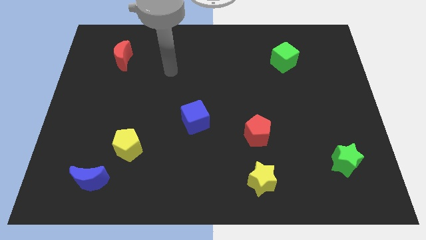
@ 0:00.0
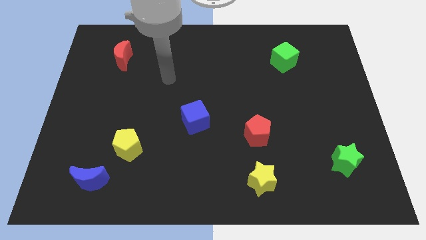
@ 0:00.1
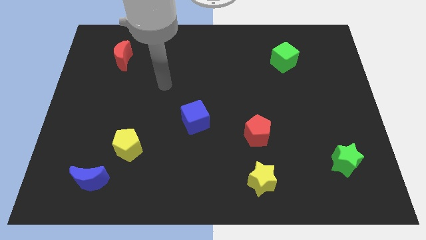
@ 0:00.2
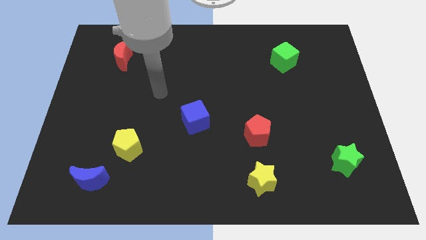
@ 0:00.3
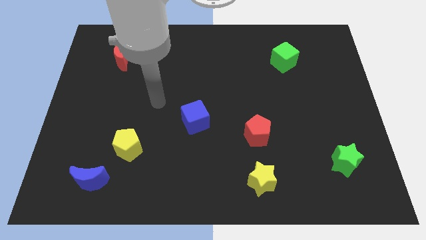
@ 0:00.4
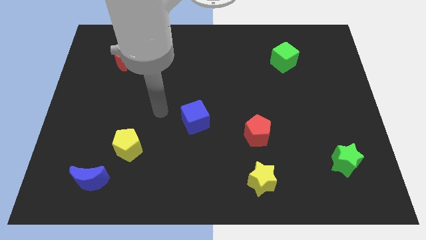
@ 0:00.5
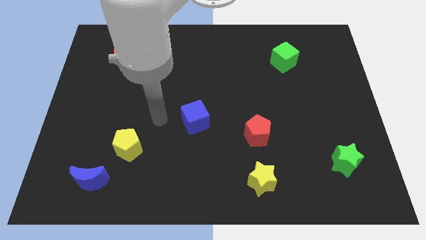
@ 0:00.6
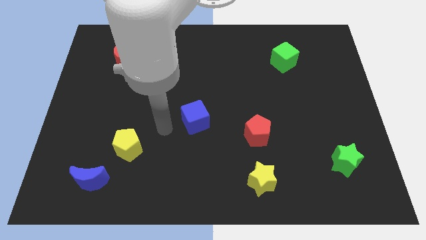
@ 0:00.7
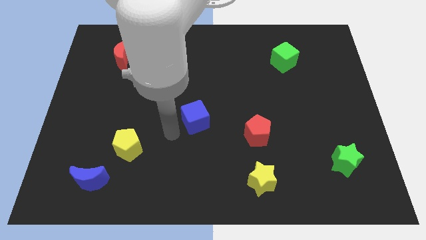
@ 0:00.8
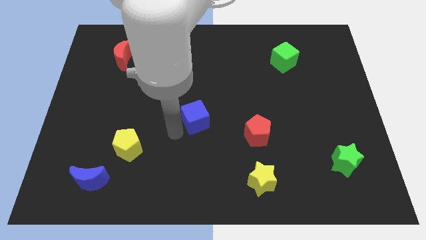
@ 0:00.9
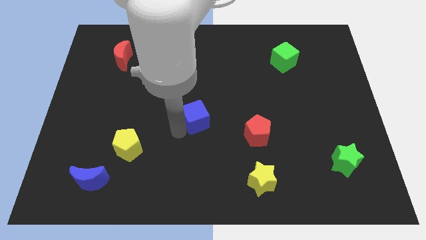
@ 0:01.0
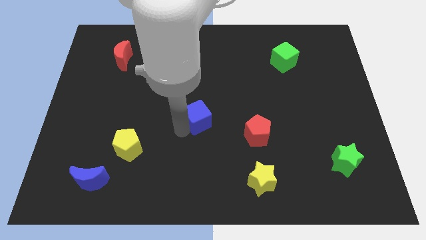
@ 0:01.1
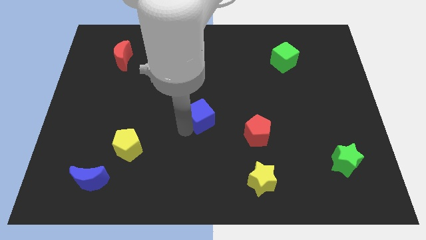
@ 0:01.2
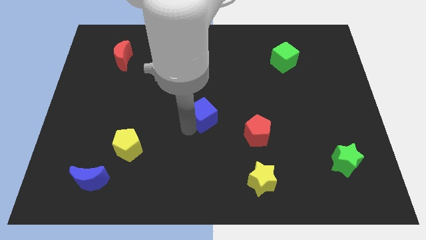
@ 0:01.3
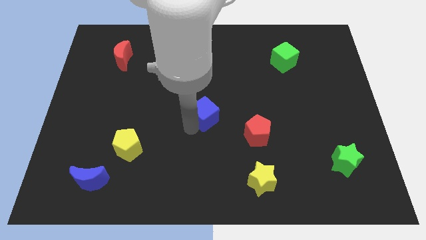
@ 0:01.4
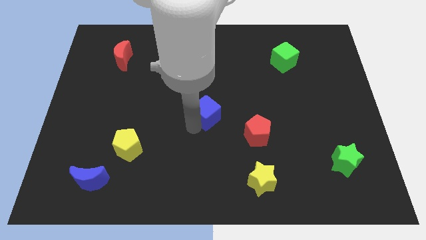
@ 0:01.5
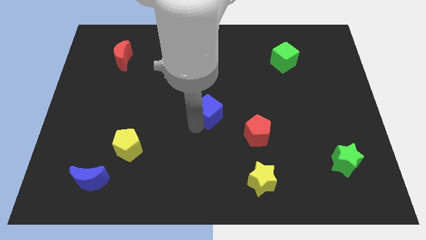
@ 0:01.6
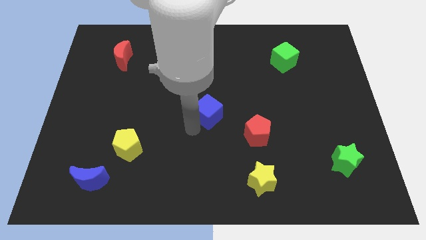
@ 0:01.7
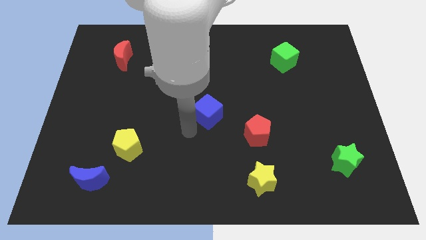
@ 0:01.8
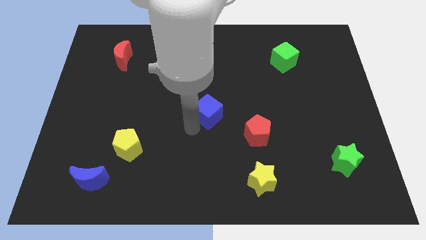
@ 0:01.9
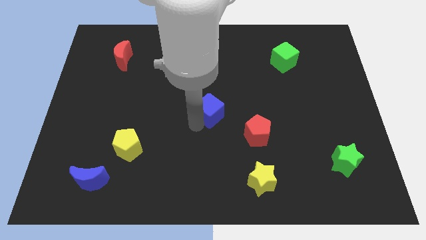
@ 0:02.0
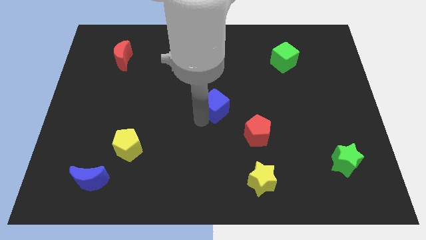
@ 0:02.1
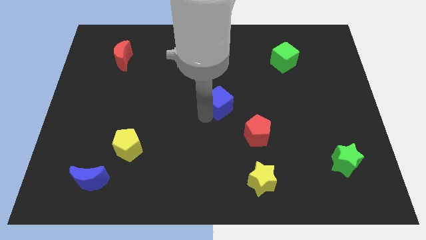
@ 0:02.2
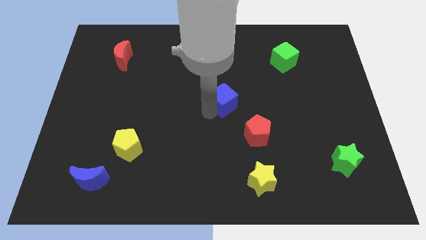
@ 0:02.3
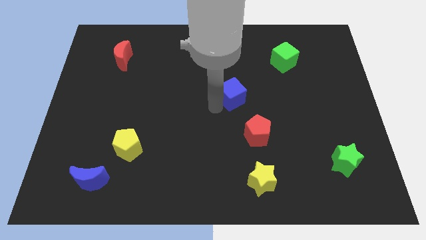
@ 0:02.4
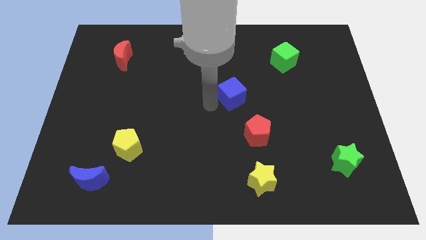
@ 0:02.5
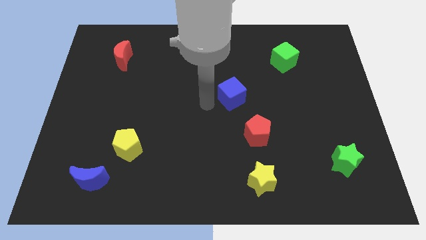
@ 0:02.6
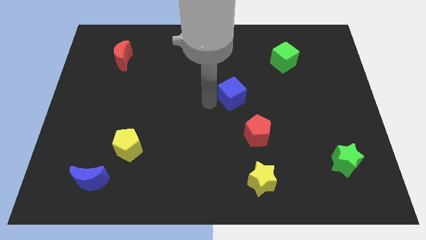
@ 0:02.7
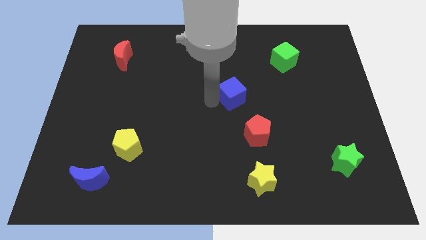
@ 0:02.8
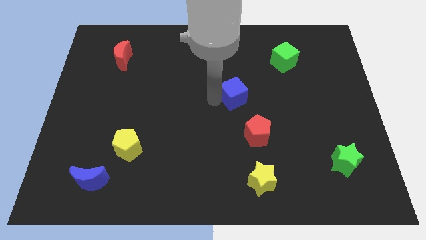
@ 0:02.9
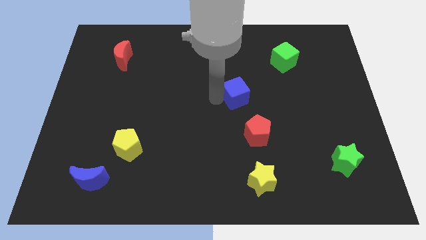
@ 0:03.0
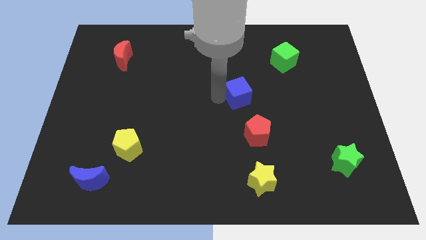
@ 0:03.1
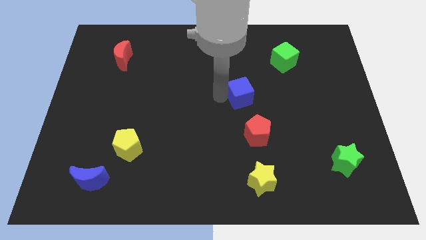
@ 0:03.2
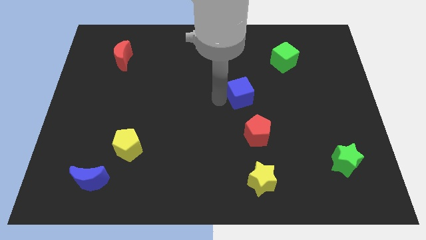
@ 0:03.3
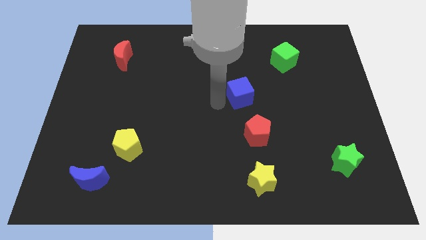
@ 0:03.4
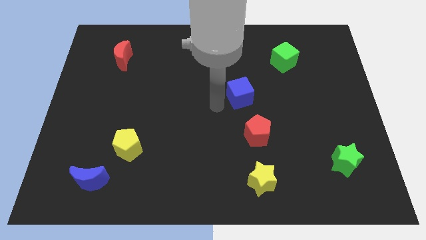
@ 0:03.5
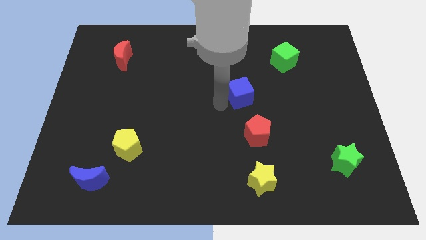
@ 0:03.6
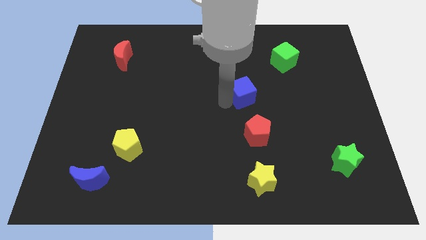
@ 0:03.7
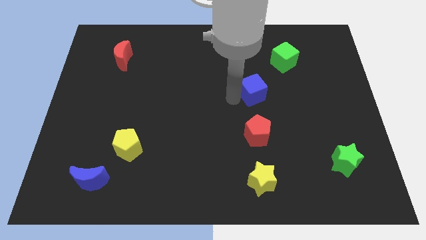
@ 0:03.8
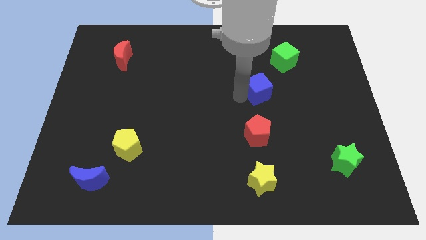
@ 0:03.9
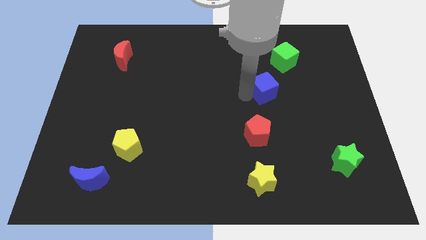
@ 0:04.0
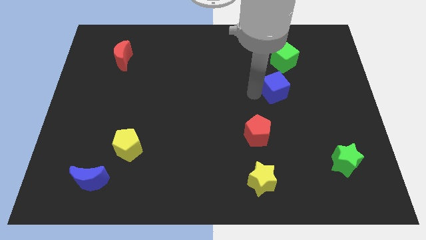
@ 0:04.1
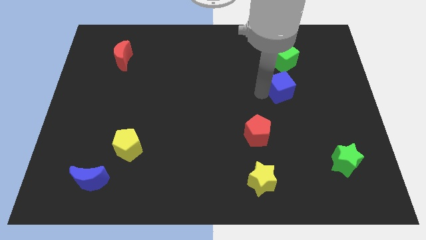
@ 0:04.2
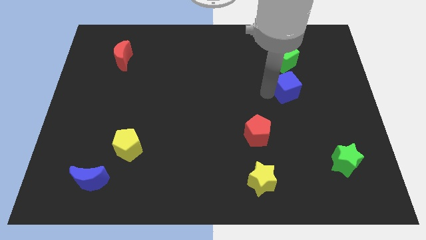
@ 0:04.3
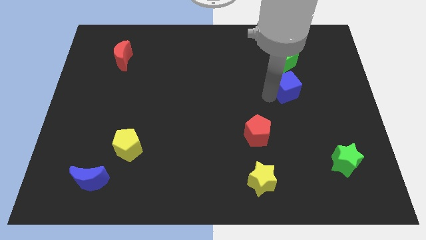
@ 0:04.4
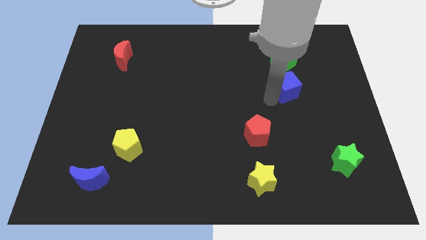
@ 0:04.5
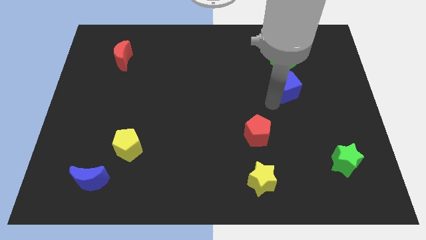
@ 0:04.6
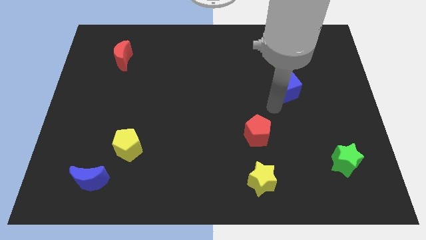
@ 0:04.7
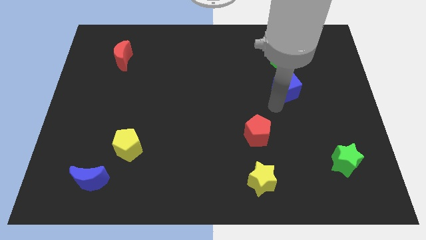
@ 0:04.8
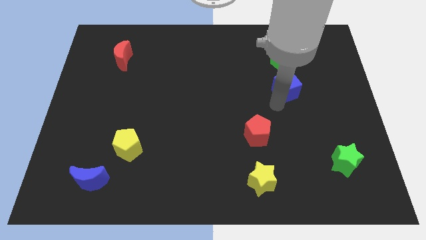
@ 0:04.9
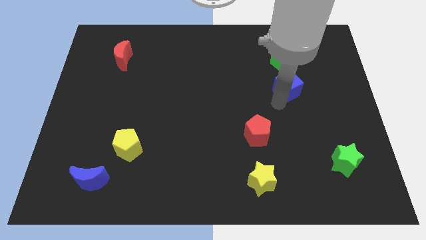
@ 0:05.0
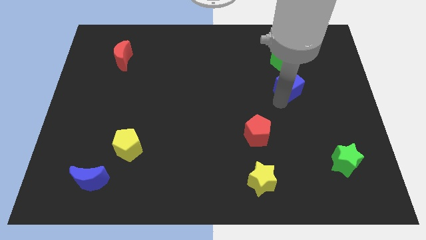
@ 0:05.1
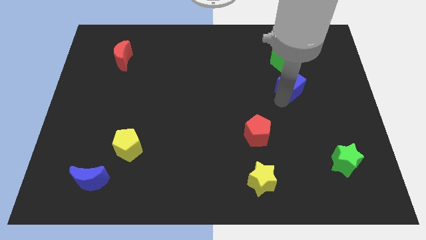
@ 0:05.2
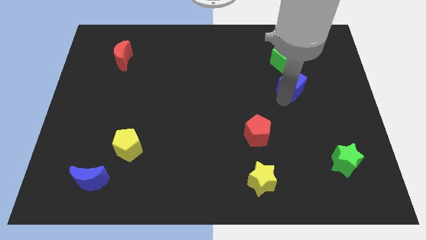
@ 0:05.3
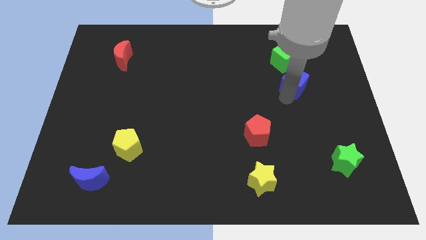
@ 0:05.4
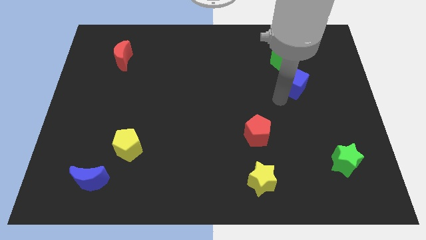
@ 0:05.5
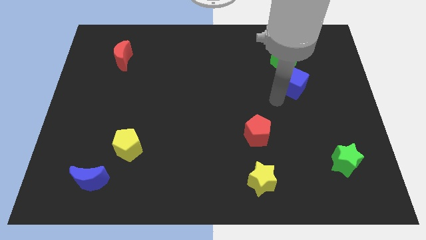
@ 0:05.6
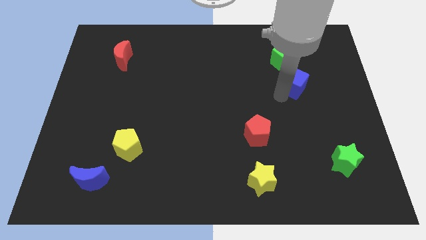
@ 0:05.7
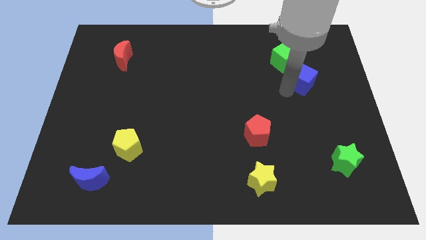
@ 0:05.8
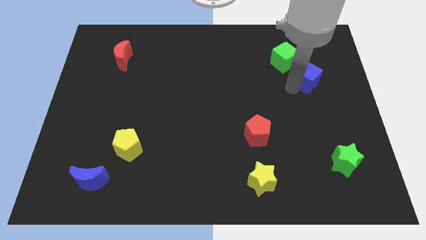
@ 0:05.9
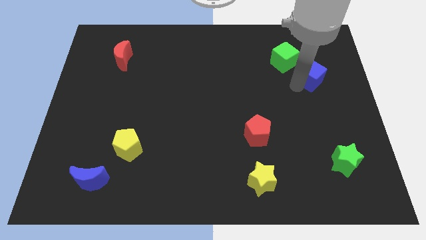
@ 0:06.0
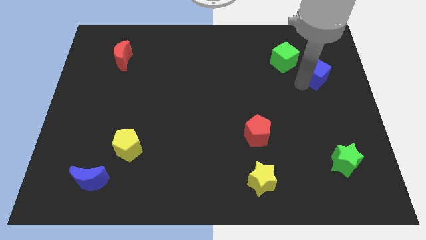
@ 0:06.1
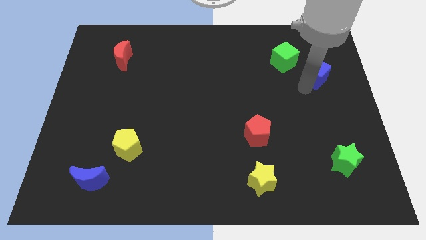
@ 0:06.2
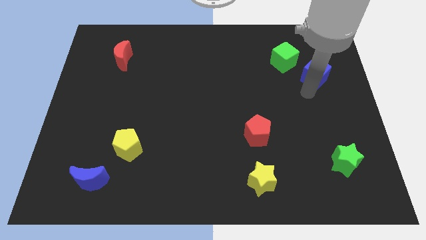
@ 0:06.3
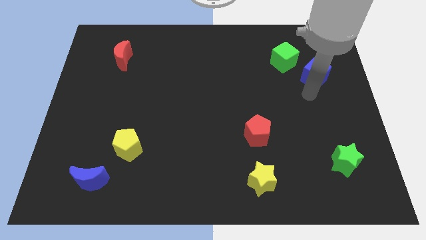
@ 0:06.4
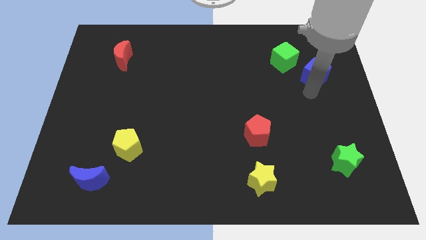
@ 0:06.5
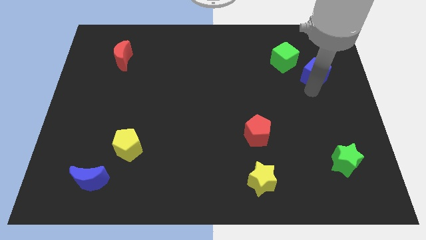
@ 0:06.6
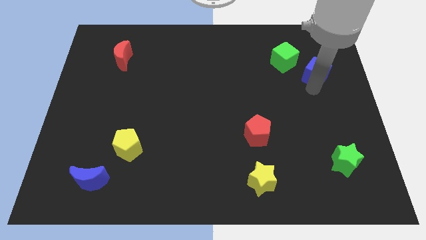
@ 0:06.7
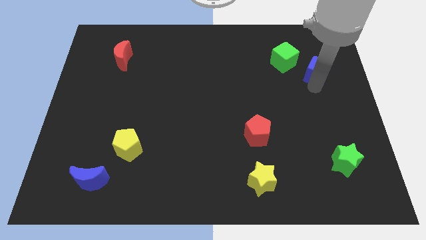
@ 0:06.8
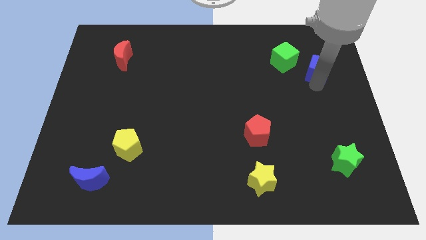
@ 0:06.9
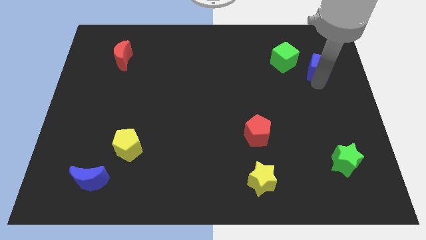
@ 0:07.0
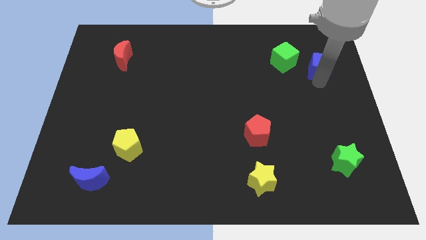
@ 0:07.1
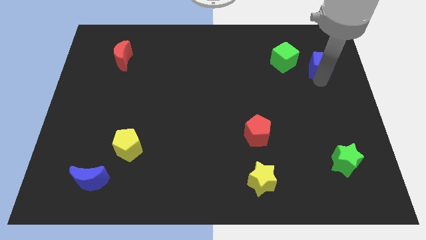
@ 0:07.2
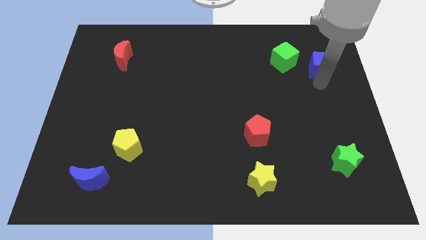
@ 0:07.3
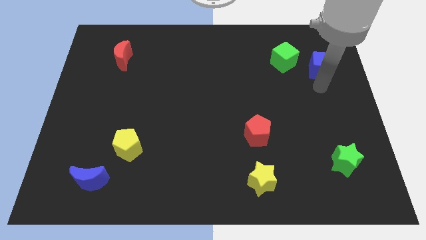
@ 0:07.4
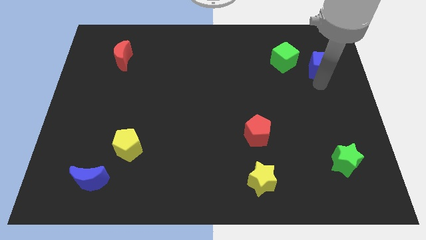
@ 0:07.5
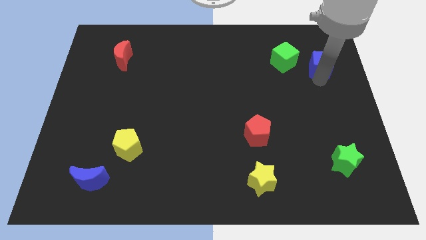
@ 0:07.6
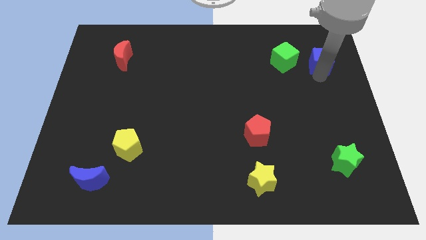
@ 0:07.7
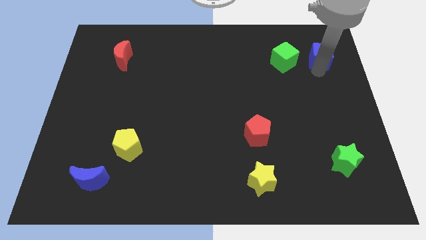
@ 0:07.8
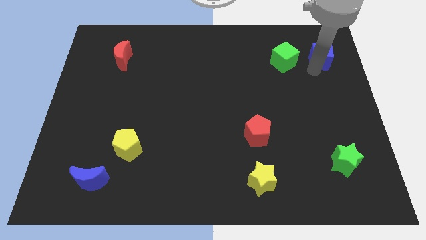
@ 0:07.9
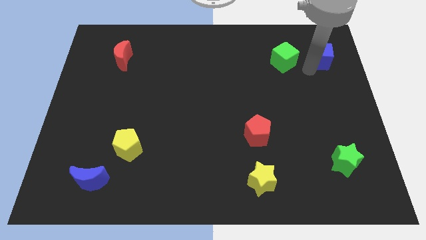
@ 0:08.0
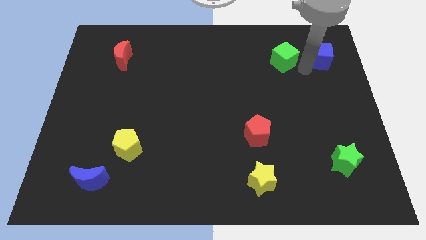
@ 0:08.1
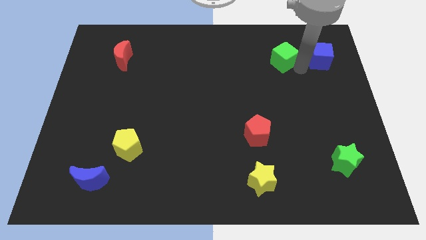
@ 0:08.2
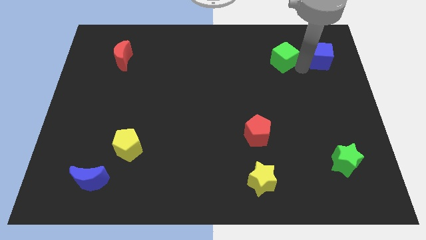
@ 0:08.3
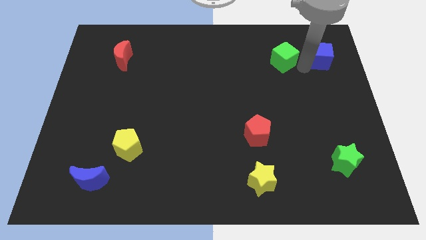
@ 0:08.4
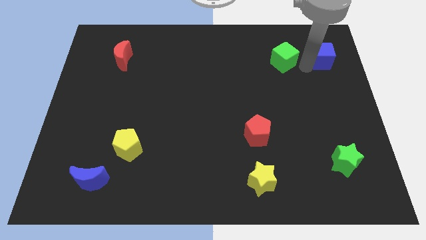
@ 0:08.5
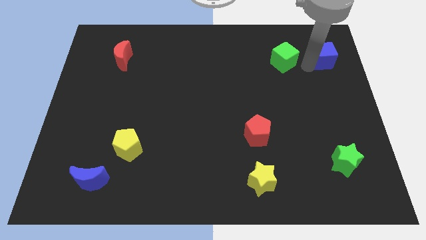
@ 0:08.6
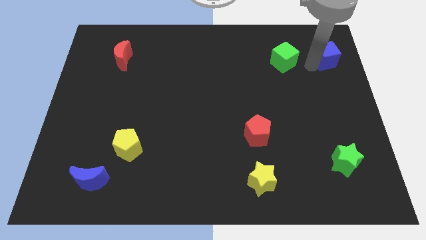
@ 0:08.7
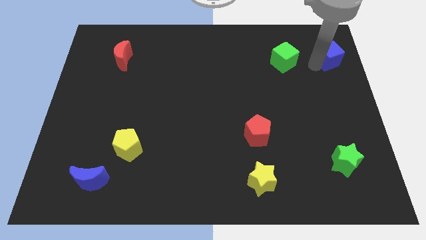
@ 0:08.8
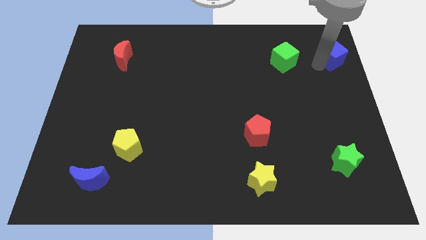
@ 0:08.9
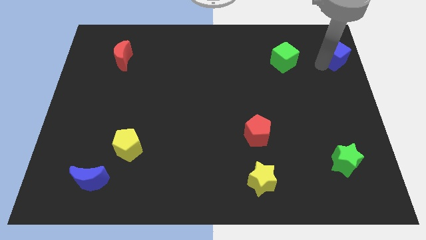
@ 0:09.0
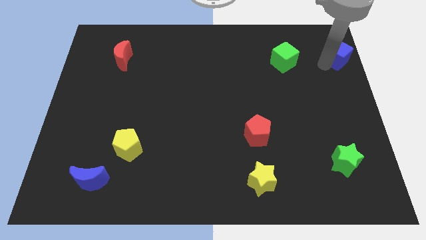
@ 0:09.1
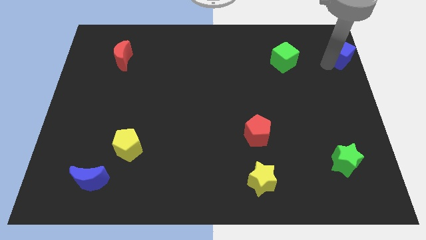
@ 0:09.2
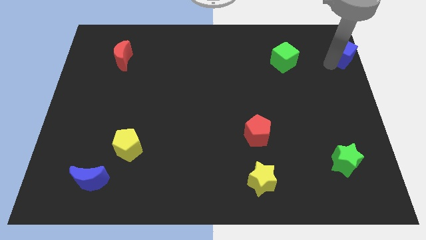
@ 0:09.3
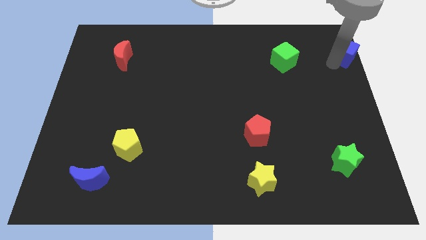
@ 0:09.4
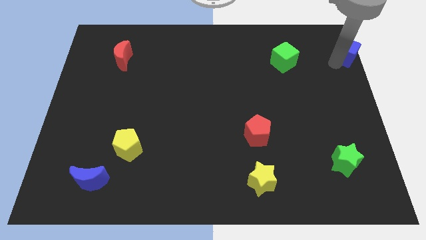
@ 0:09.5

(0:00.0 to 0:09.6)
slide the blue cube to the top right of the board
